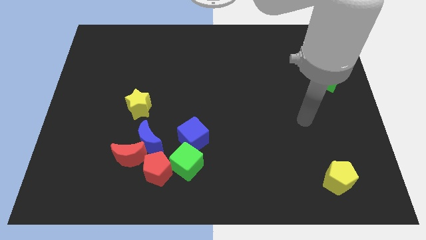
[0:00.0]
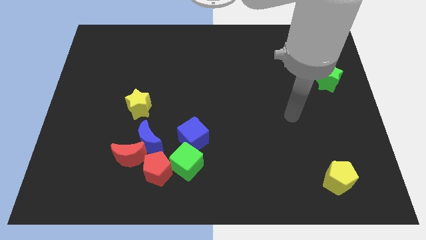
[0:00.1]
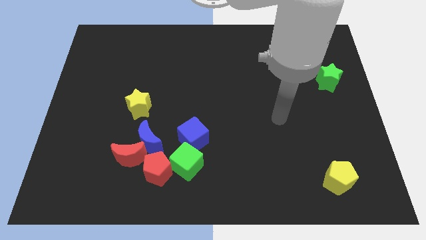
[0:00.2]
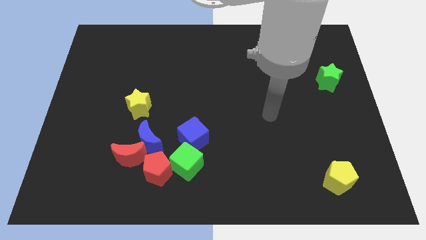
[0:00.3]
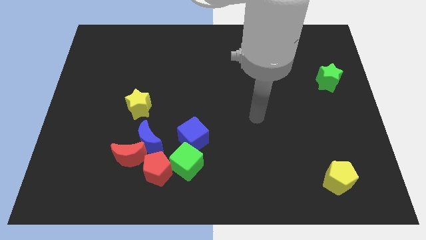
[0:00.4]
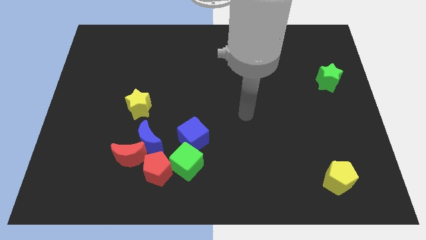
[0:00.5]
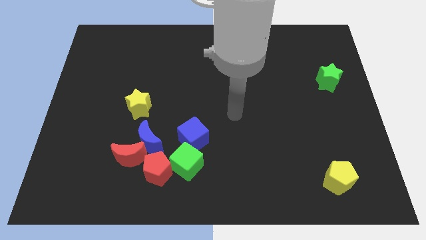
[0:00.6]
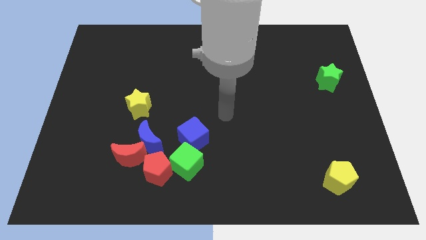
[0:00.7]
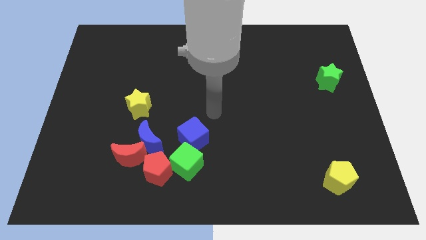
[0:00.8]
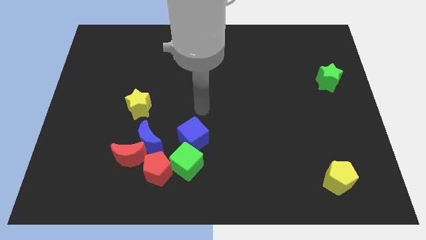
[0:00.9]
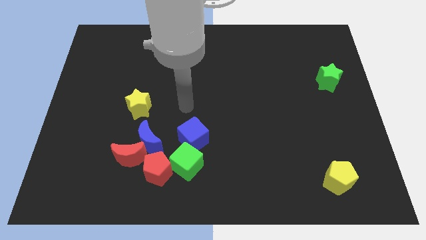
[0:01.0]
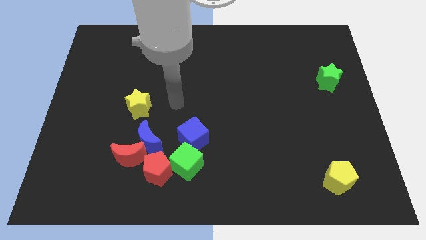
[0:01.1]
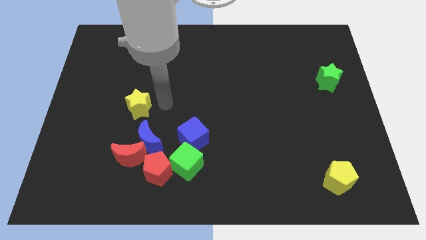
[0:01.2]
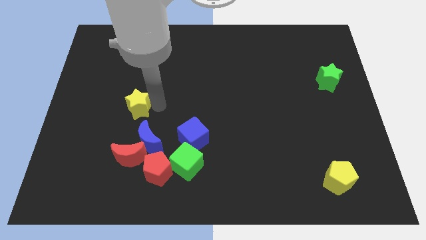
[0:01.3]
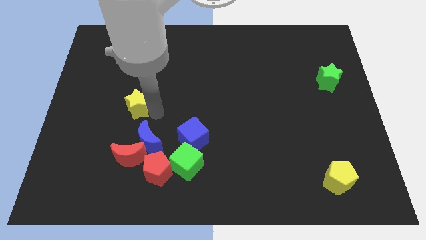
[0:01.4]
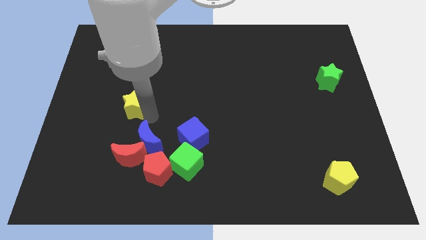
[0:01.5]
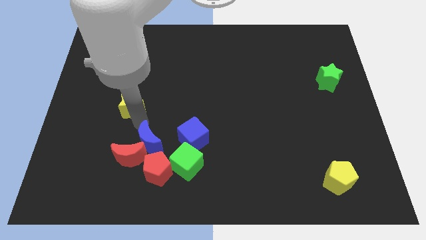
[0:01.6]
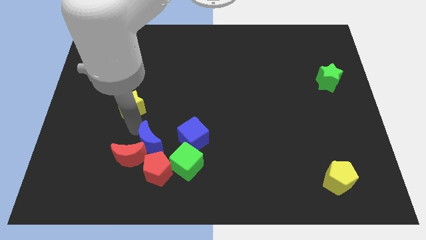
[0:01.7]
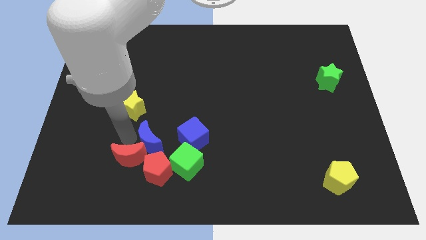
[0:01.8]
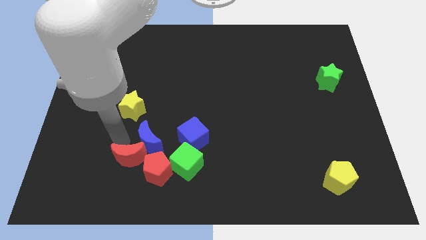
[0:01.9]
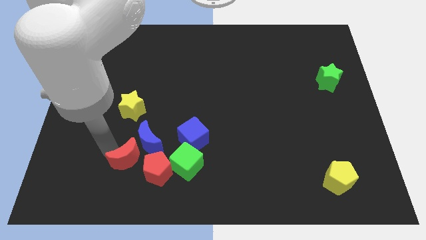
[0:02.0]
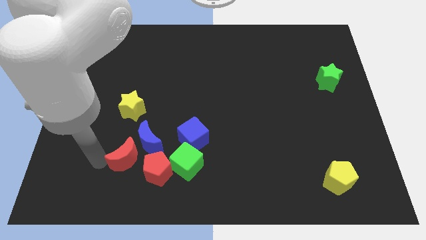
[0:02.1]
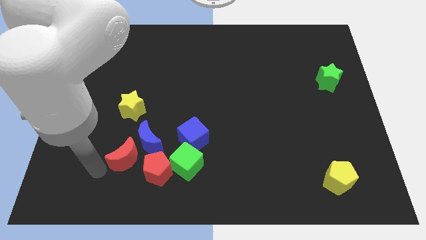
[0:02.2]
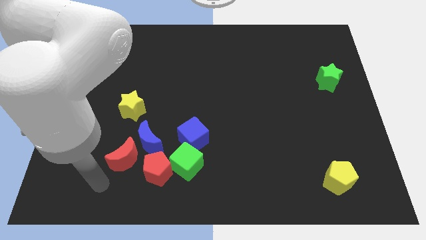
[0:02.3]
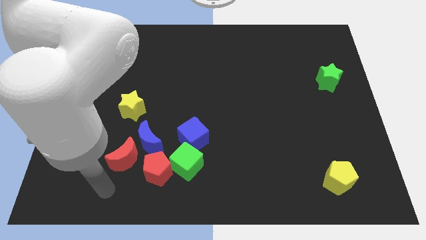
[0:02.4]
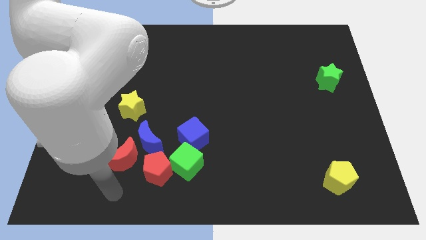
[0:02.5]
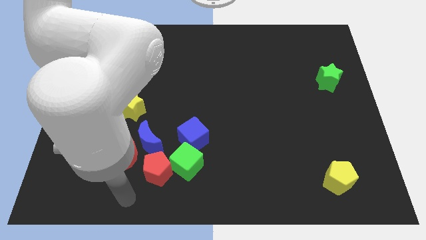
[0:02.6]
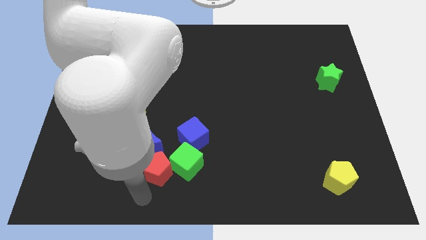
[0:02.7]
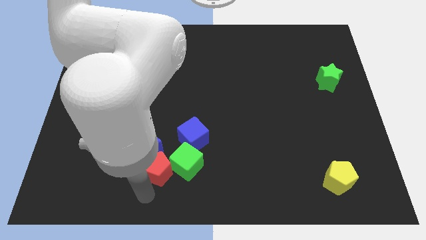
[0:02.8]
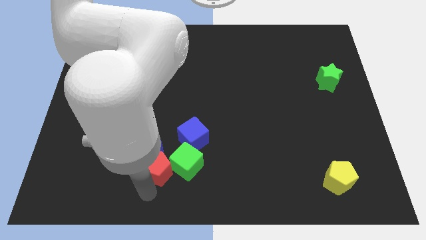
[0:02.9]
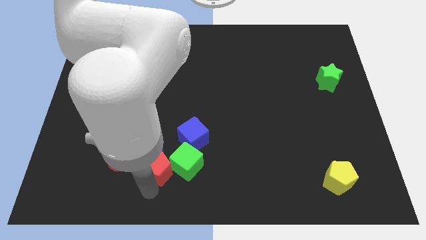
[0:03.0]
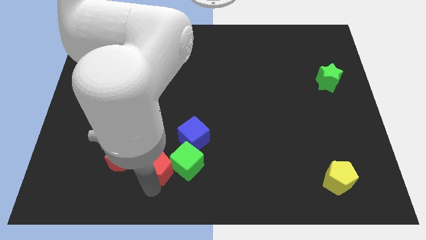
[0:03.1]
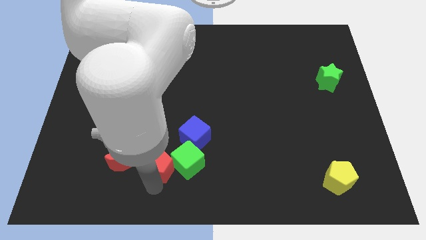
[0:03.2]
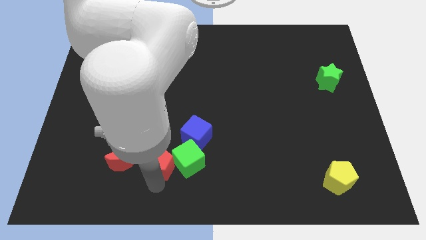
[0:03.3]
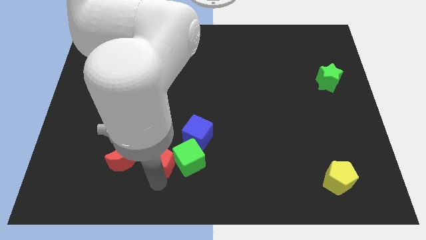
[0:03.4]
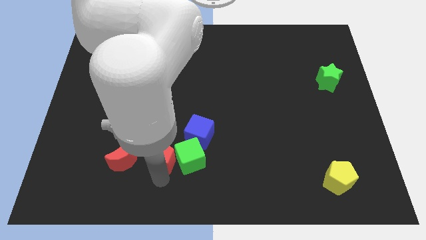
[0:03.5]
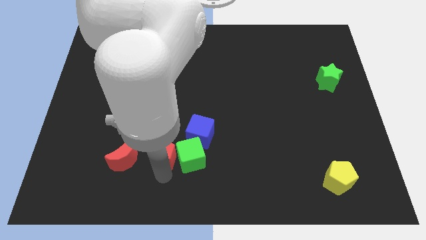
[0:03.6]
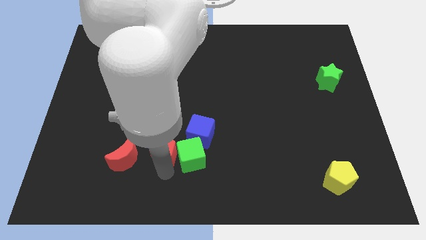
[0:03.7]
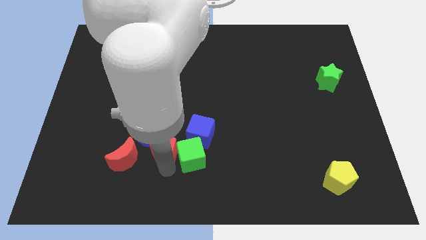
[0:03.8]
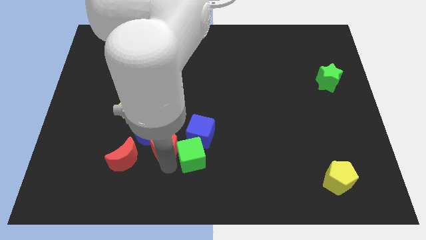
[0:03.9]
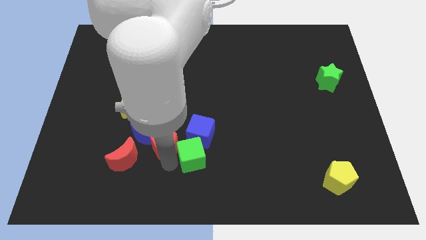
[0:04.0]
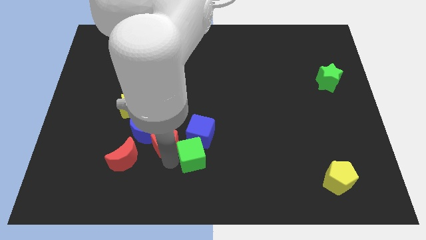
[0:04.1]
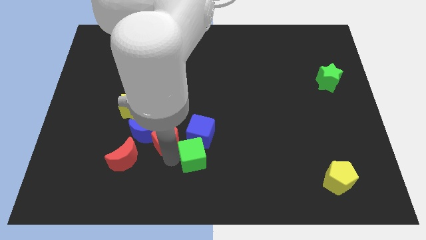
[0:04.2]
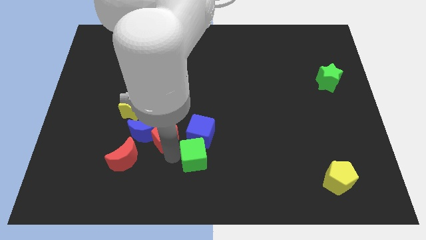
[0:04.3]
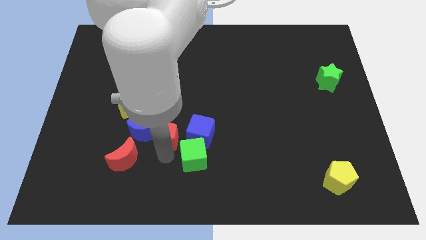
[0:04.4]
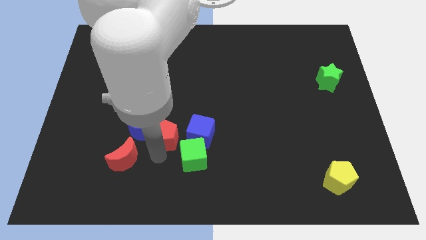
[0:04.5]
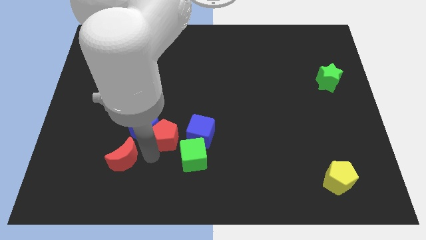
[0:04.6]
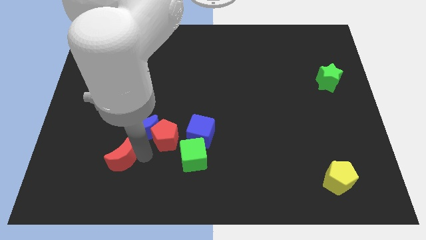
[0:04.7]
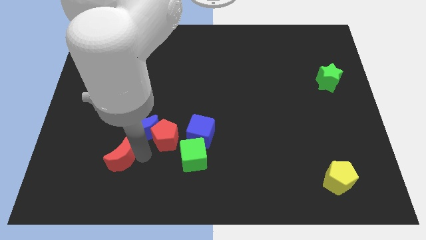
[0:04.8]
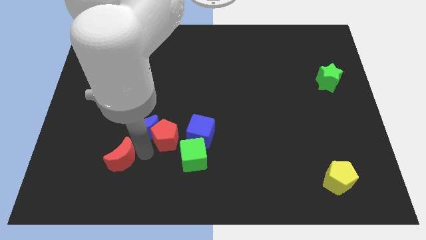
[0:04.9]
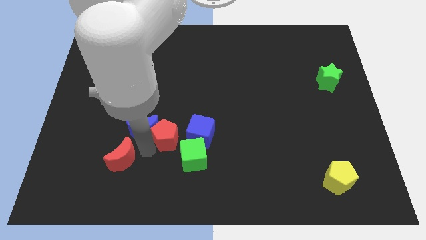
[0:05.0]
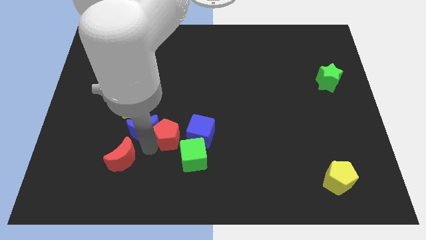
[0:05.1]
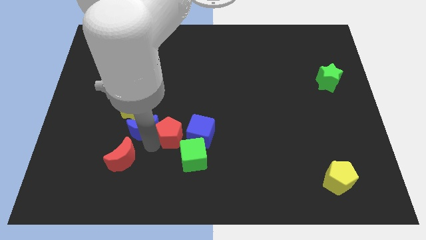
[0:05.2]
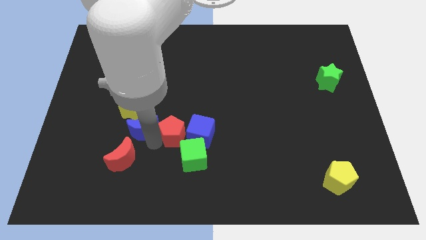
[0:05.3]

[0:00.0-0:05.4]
slightly slide the red pentagon diagonally upwards and right

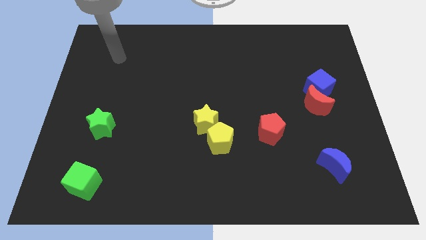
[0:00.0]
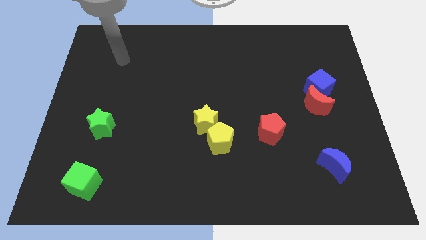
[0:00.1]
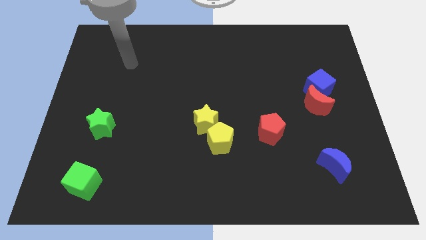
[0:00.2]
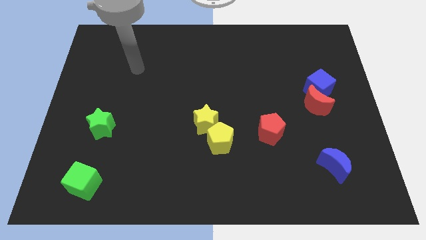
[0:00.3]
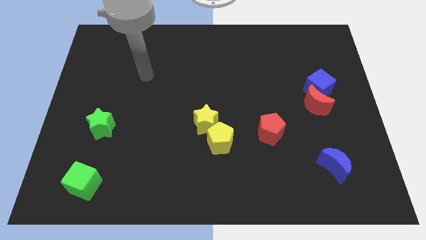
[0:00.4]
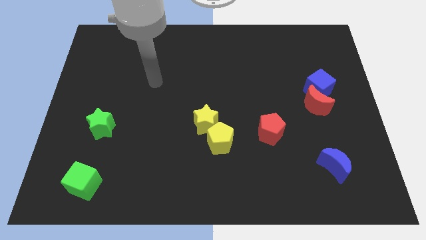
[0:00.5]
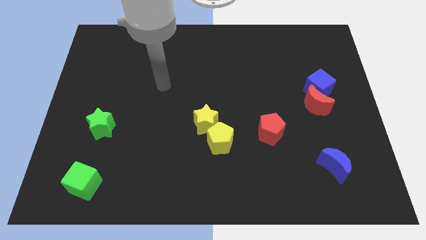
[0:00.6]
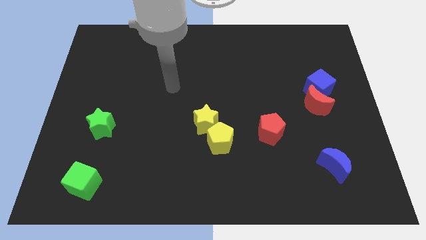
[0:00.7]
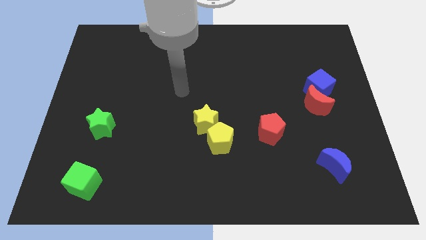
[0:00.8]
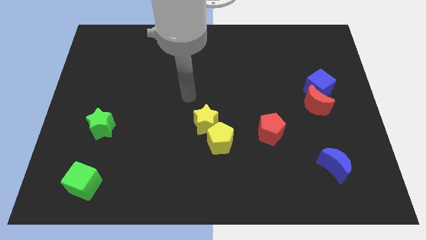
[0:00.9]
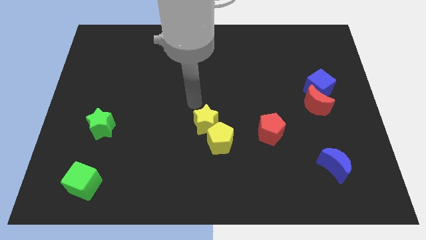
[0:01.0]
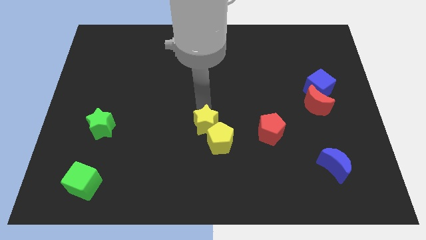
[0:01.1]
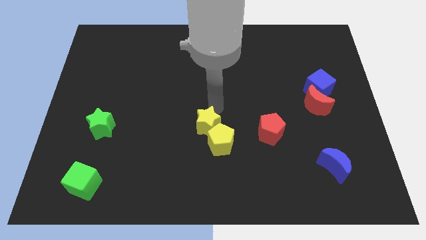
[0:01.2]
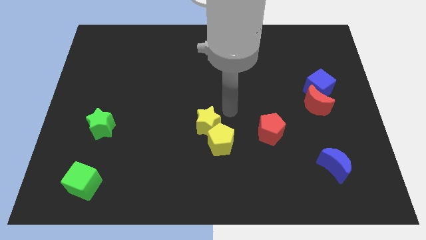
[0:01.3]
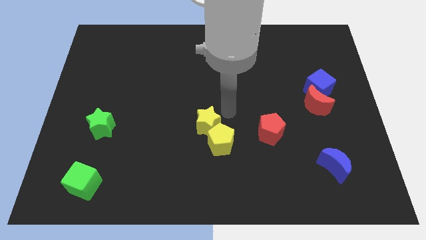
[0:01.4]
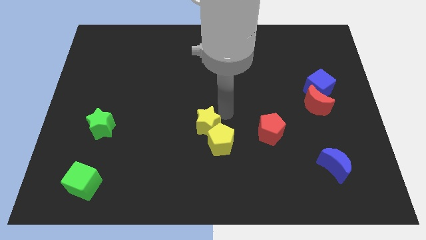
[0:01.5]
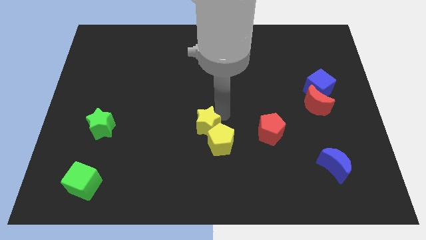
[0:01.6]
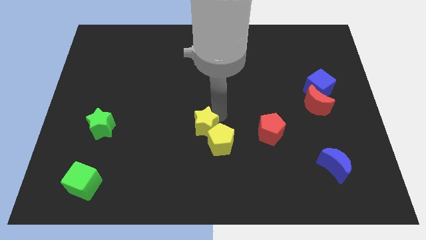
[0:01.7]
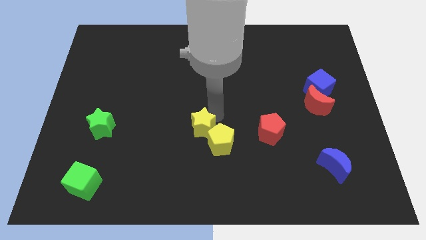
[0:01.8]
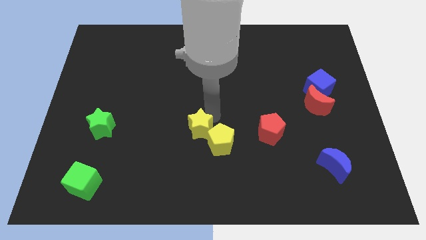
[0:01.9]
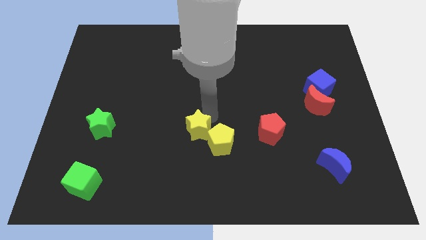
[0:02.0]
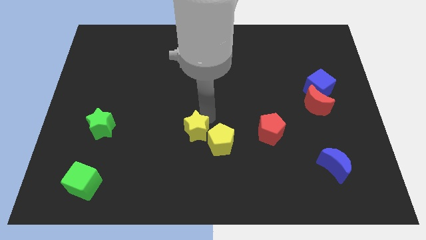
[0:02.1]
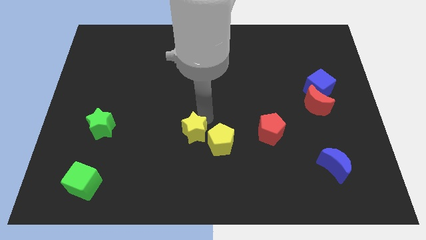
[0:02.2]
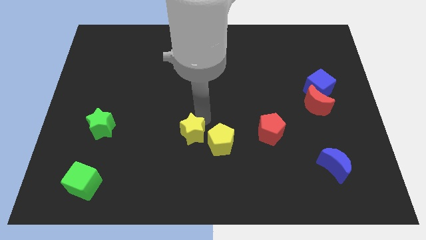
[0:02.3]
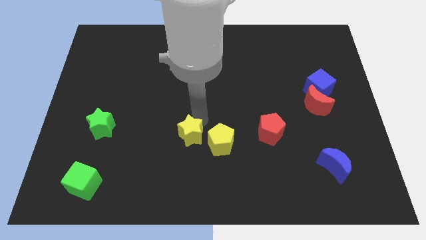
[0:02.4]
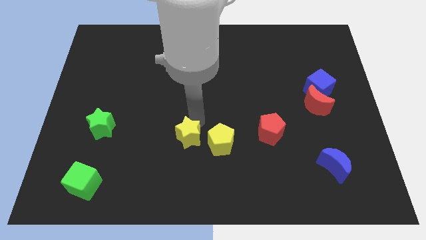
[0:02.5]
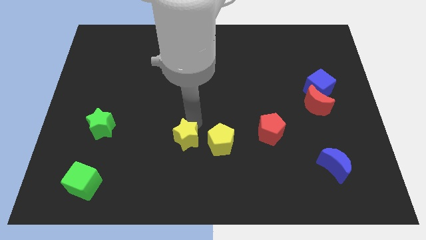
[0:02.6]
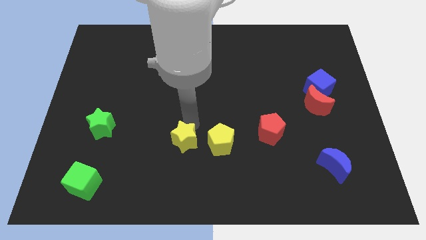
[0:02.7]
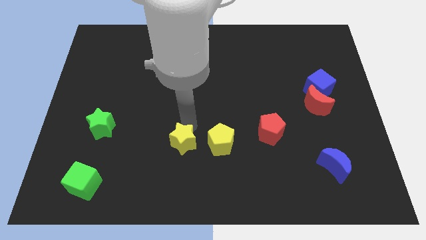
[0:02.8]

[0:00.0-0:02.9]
slide the yellow star down and left diagonally slightly
